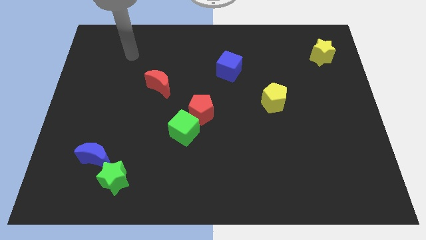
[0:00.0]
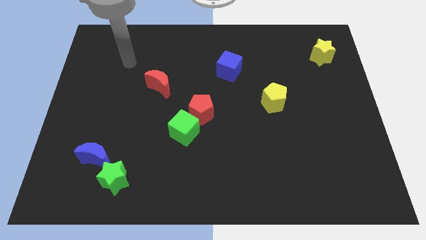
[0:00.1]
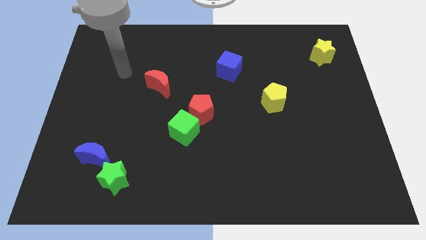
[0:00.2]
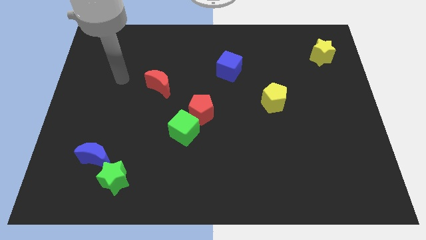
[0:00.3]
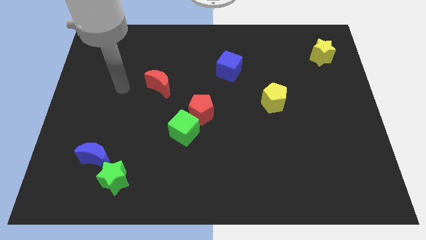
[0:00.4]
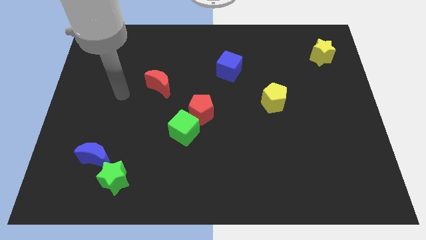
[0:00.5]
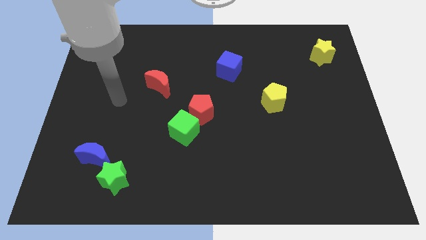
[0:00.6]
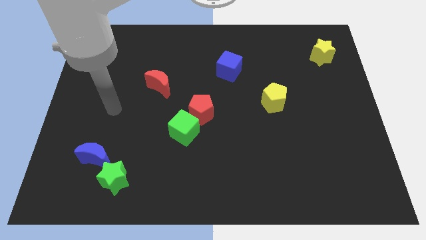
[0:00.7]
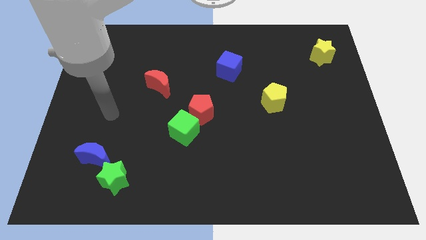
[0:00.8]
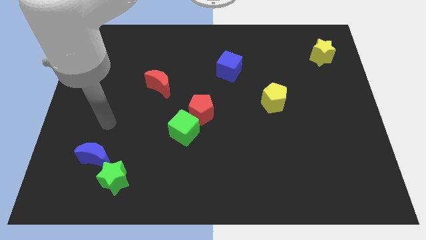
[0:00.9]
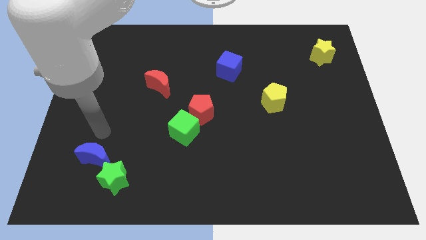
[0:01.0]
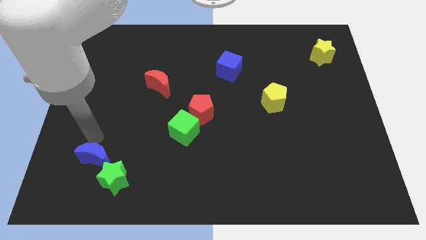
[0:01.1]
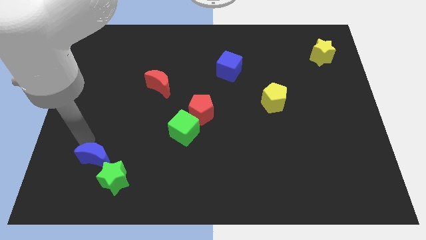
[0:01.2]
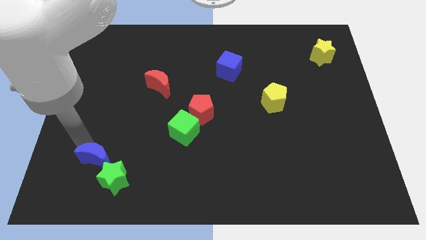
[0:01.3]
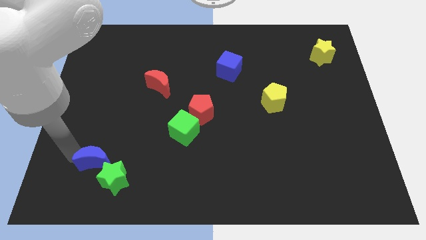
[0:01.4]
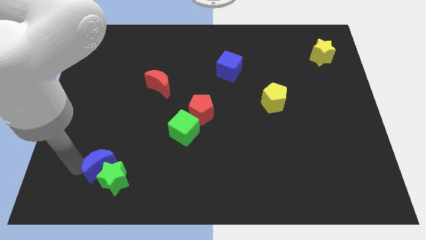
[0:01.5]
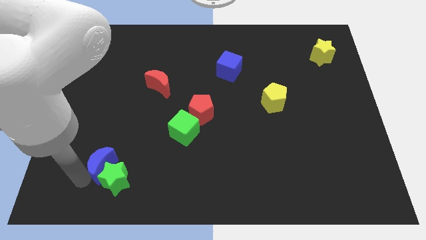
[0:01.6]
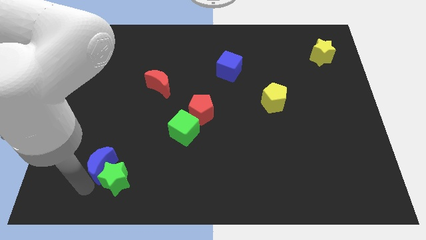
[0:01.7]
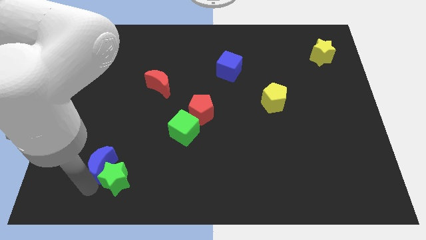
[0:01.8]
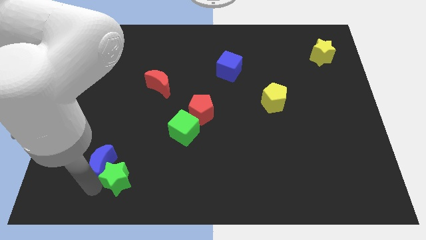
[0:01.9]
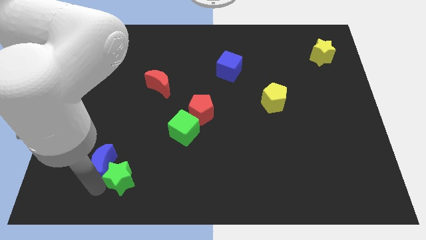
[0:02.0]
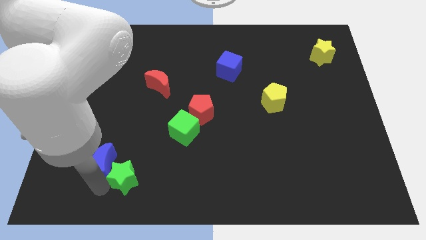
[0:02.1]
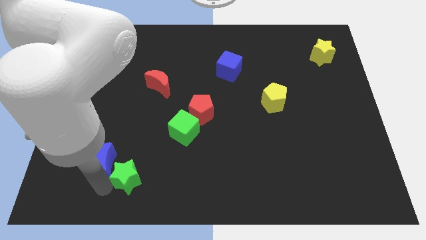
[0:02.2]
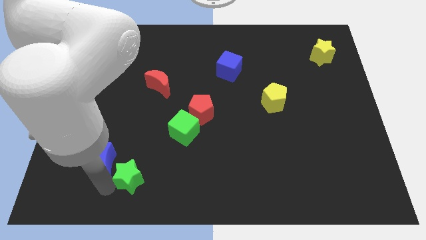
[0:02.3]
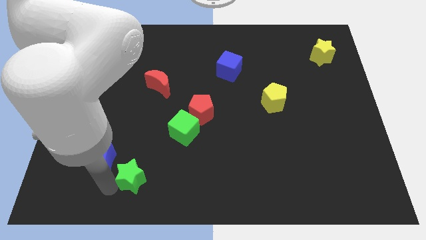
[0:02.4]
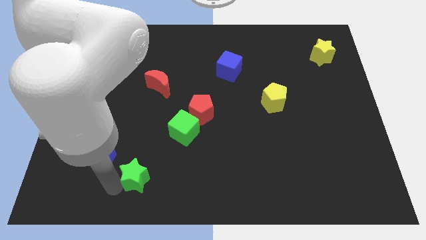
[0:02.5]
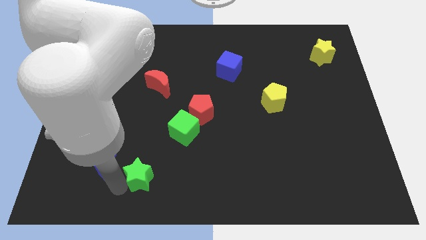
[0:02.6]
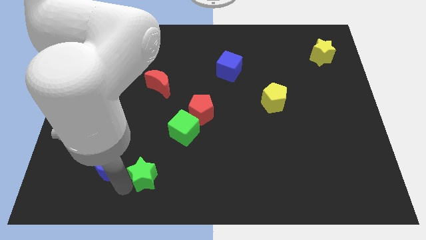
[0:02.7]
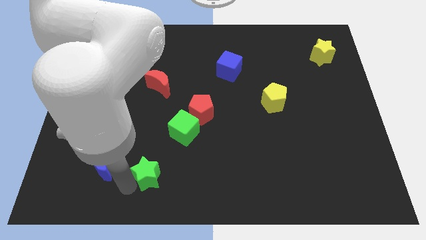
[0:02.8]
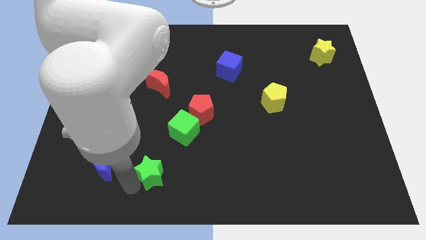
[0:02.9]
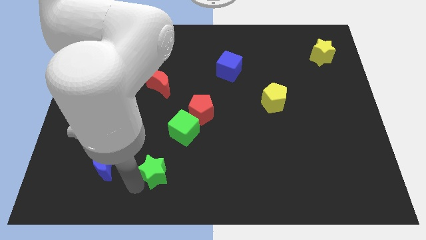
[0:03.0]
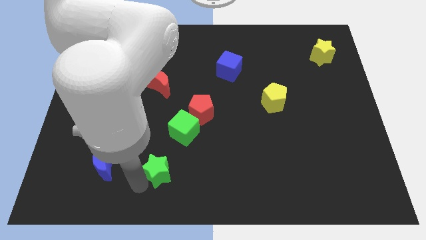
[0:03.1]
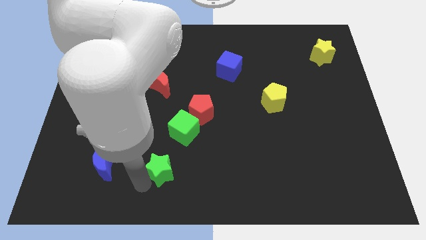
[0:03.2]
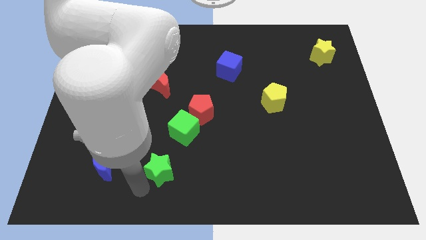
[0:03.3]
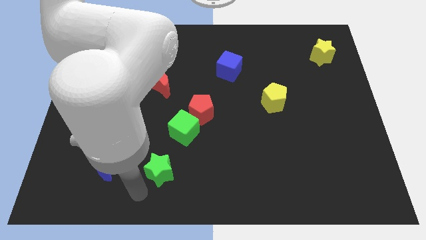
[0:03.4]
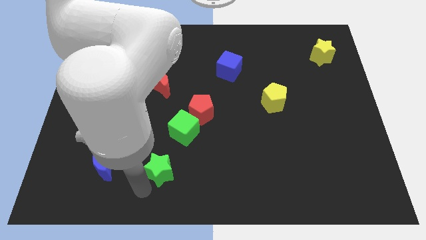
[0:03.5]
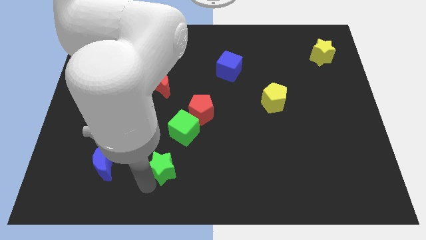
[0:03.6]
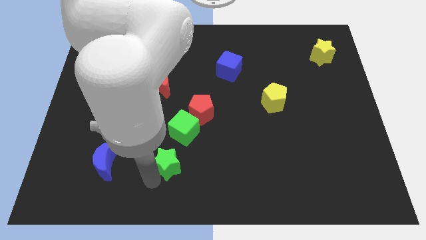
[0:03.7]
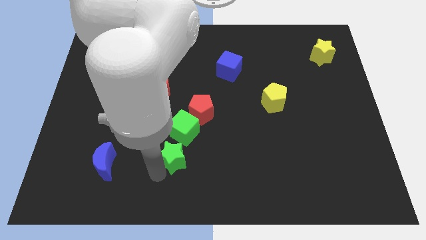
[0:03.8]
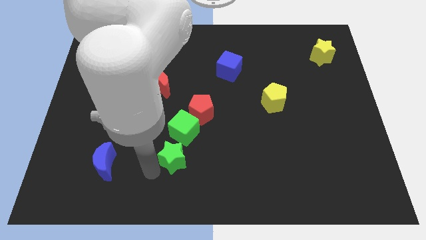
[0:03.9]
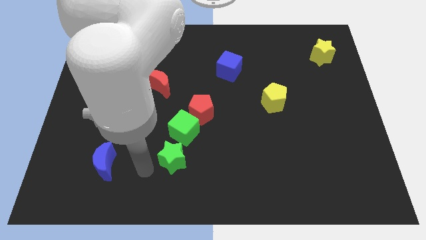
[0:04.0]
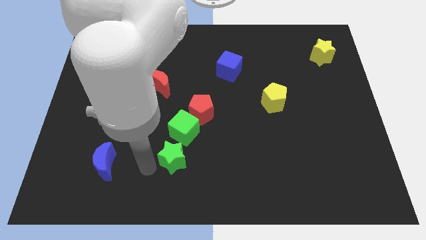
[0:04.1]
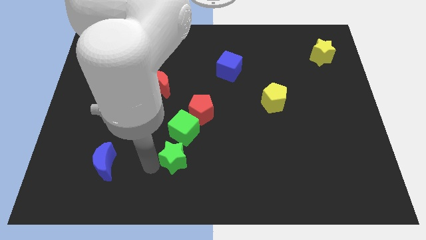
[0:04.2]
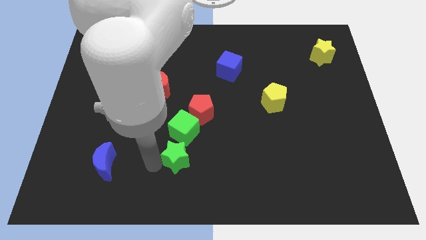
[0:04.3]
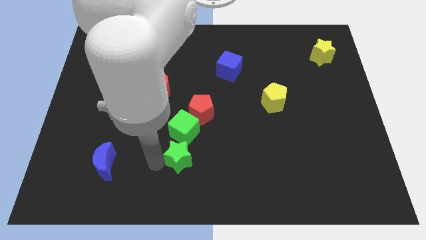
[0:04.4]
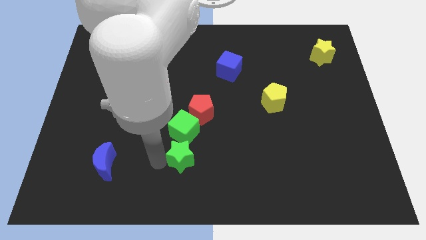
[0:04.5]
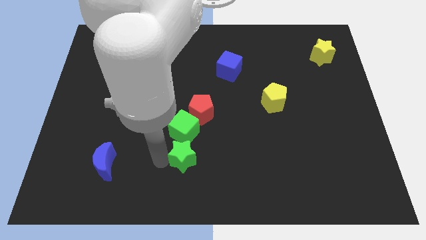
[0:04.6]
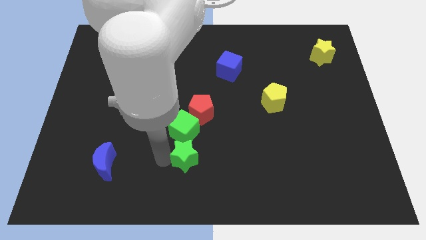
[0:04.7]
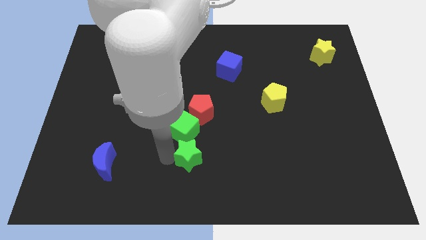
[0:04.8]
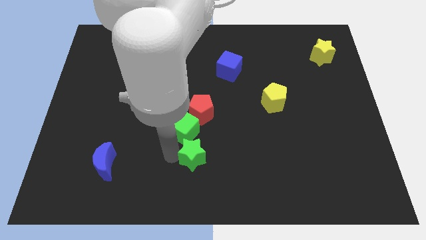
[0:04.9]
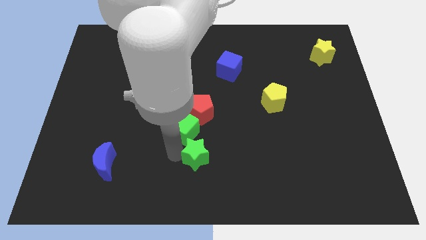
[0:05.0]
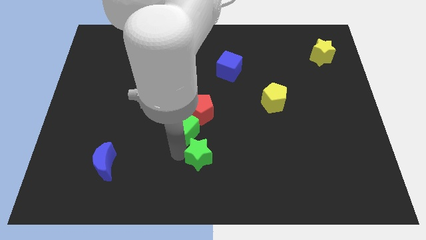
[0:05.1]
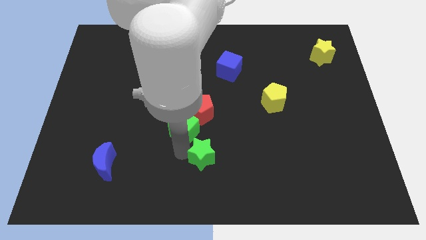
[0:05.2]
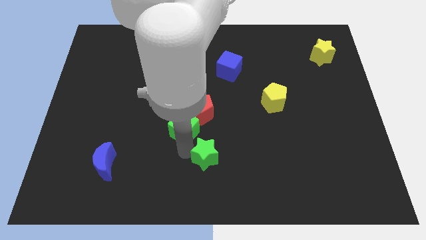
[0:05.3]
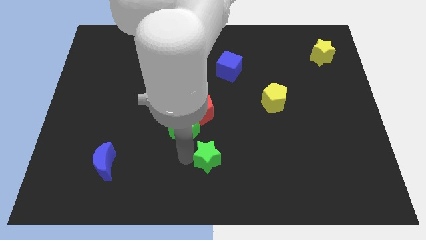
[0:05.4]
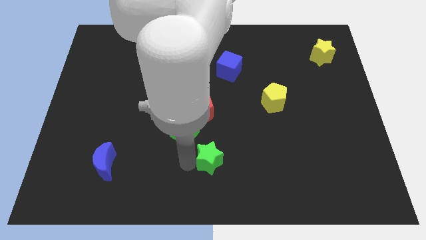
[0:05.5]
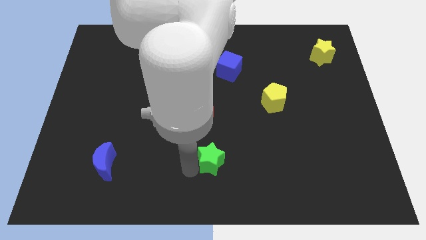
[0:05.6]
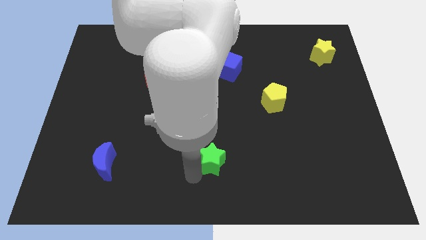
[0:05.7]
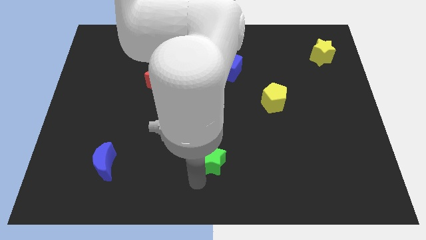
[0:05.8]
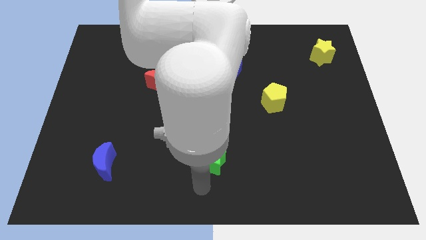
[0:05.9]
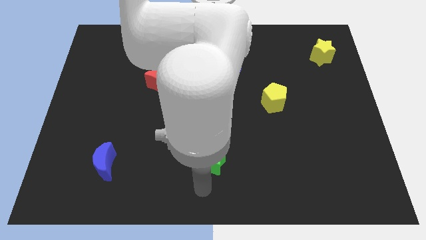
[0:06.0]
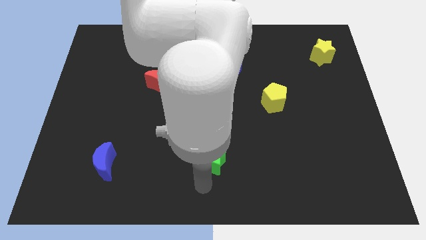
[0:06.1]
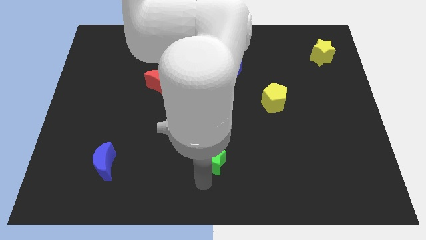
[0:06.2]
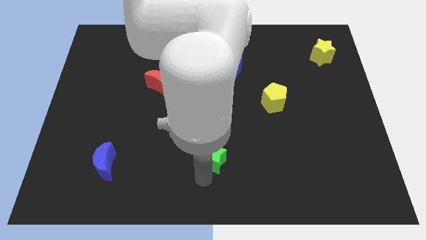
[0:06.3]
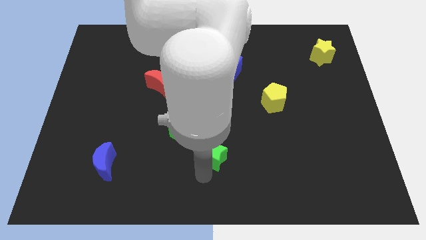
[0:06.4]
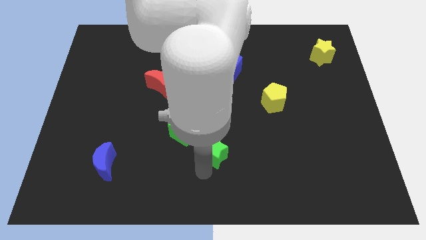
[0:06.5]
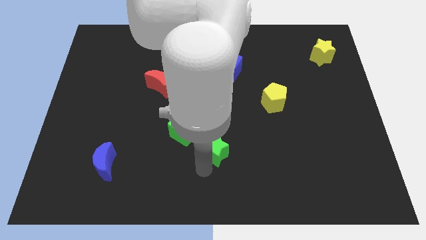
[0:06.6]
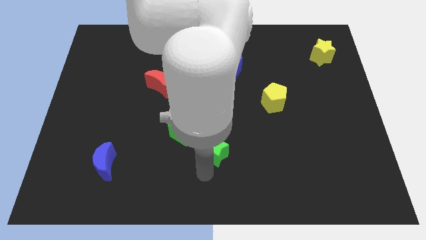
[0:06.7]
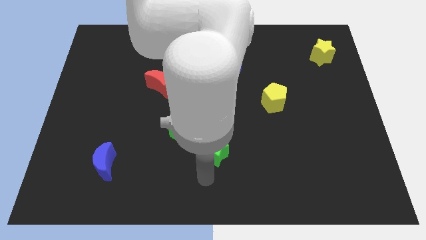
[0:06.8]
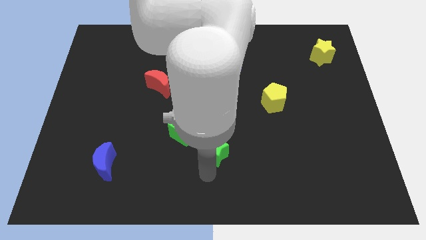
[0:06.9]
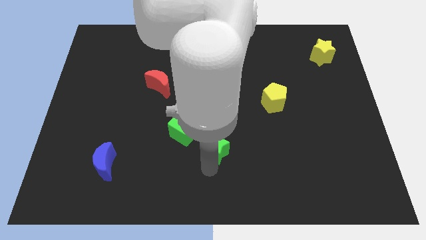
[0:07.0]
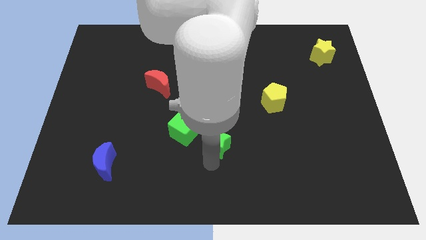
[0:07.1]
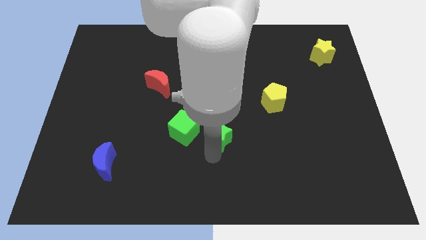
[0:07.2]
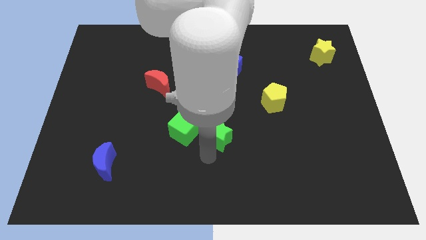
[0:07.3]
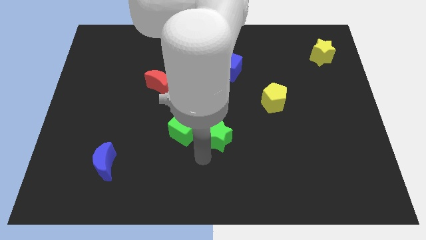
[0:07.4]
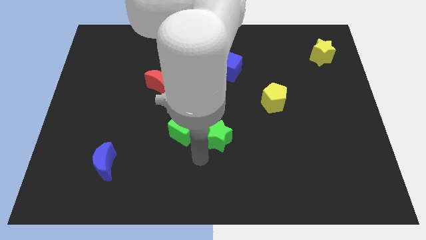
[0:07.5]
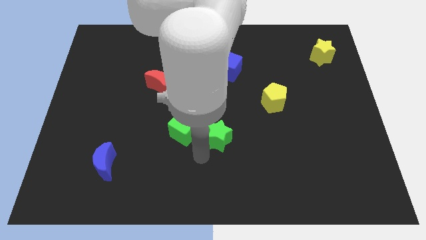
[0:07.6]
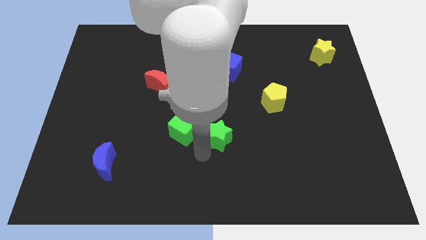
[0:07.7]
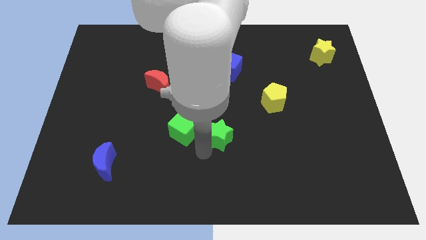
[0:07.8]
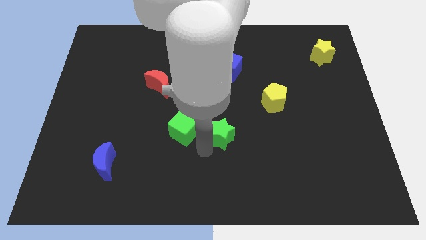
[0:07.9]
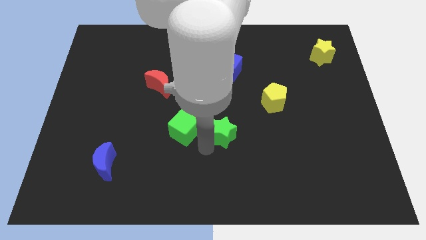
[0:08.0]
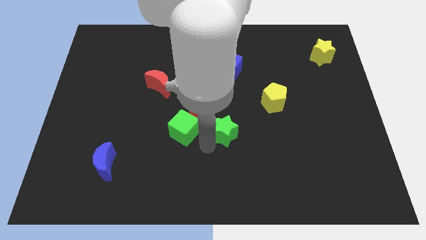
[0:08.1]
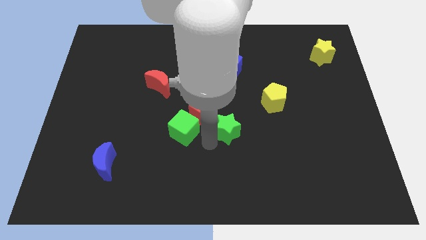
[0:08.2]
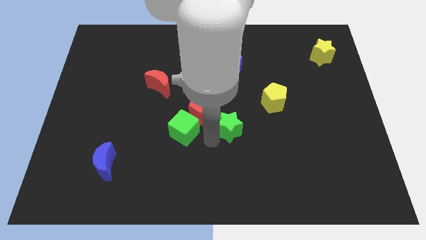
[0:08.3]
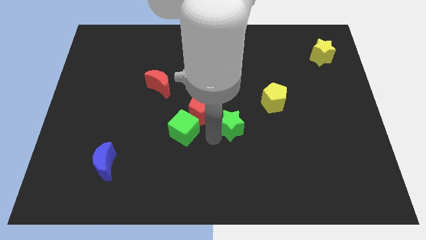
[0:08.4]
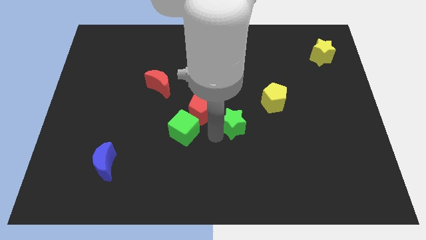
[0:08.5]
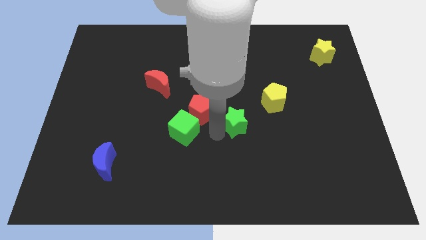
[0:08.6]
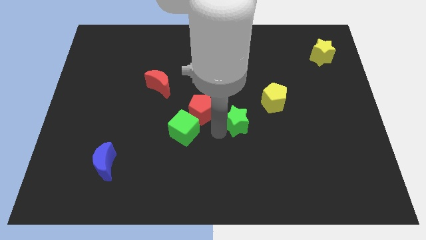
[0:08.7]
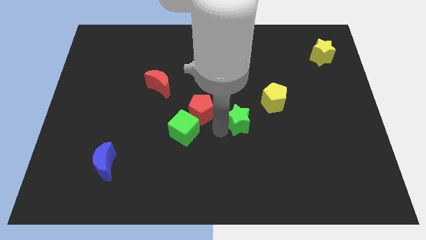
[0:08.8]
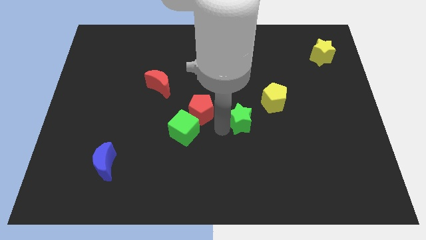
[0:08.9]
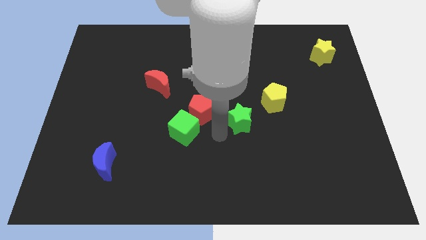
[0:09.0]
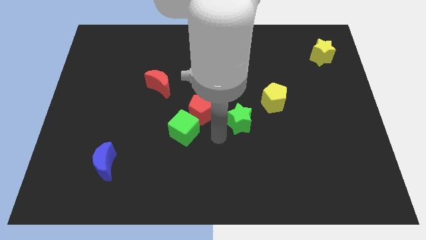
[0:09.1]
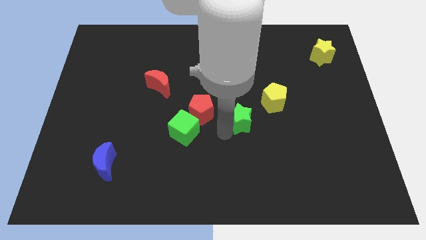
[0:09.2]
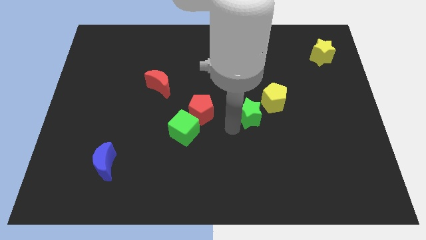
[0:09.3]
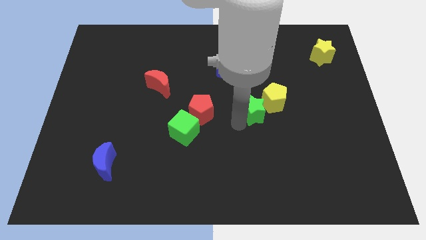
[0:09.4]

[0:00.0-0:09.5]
push the green star close to the yellow pentagon
